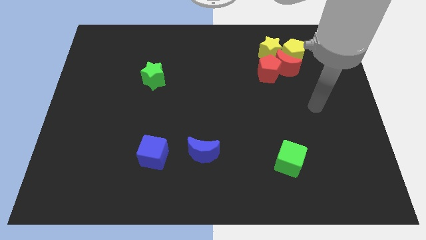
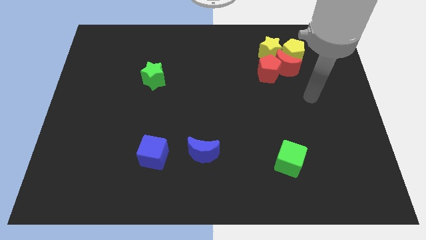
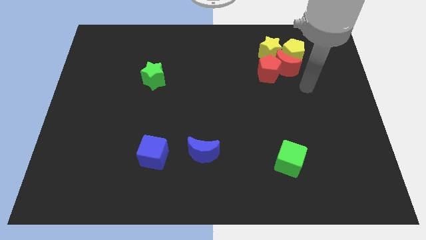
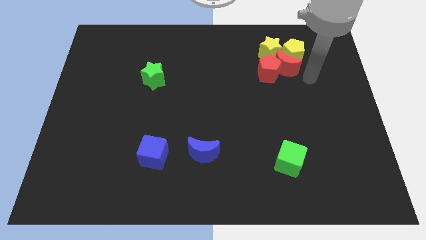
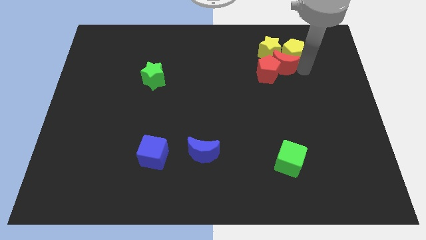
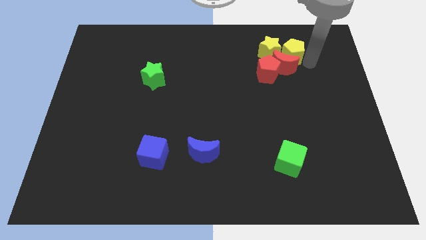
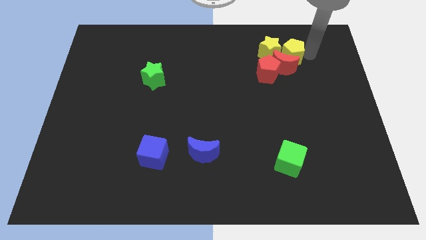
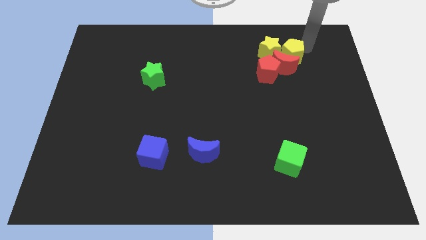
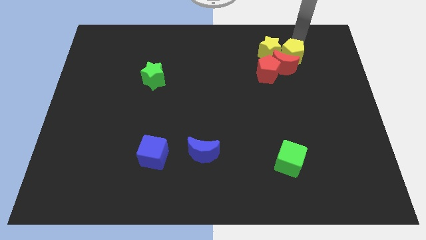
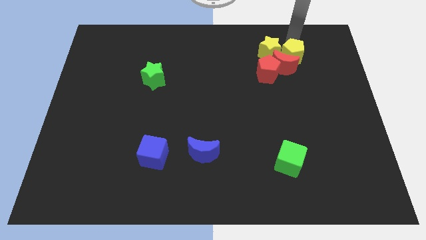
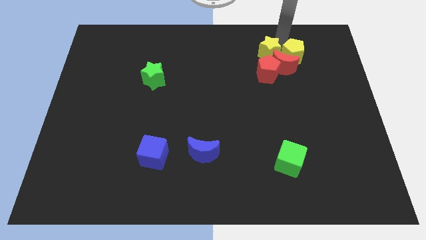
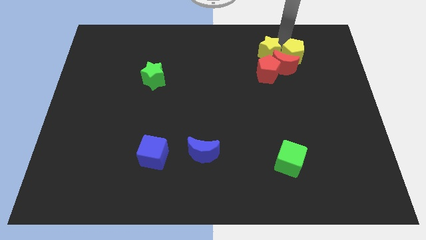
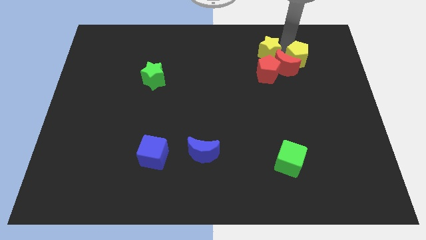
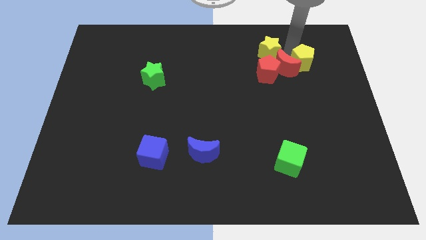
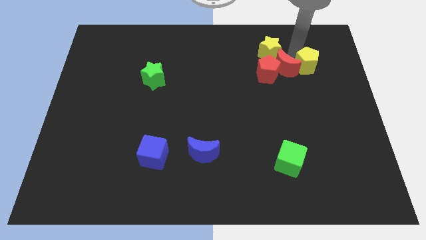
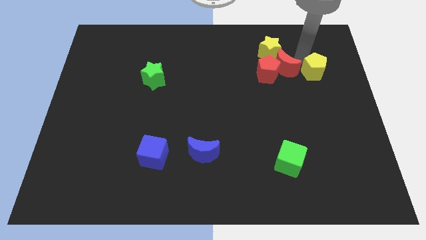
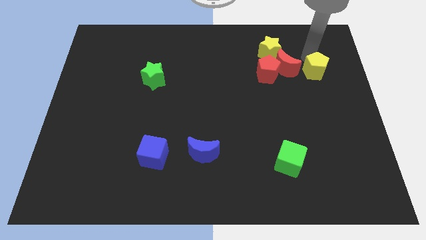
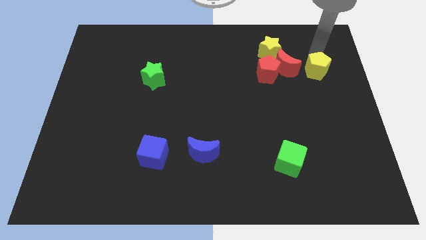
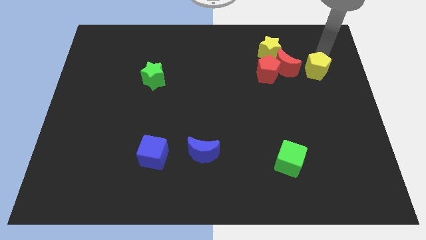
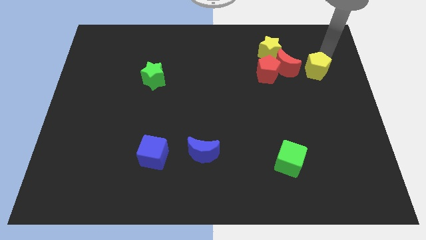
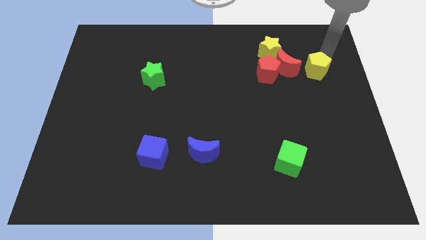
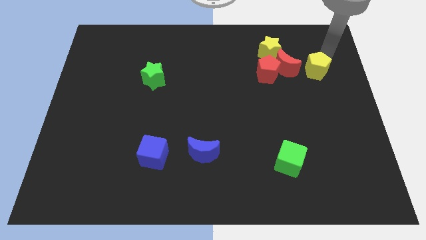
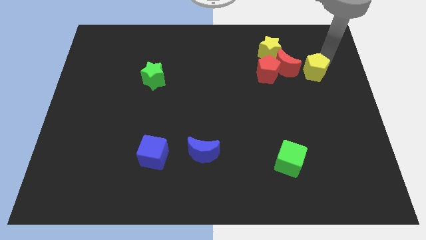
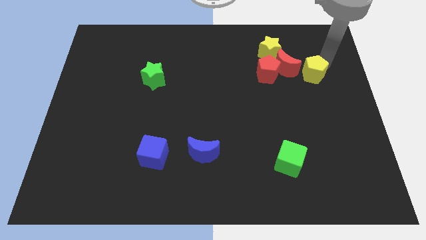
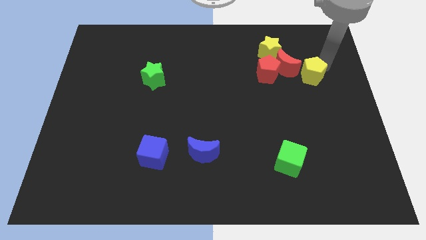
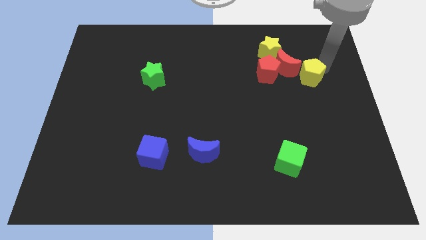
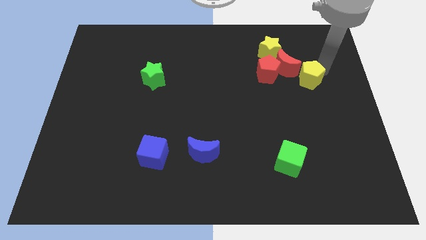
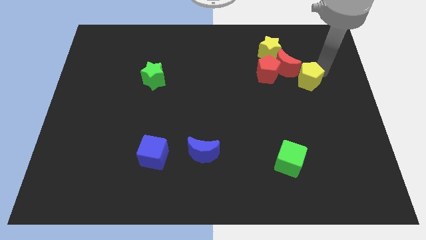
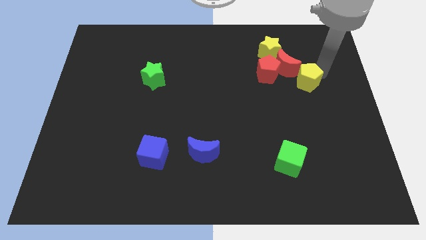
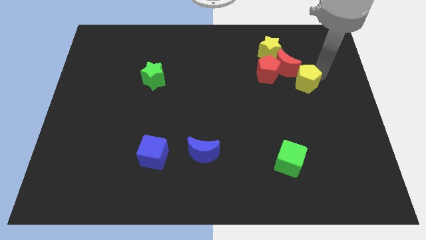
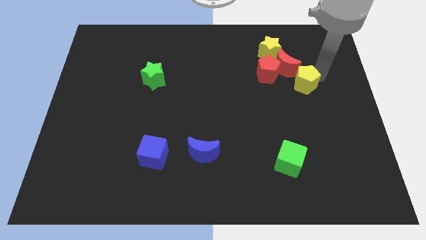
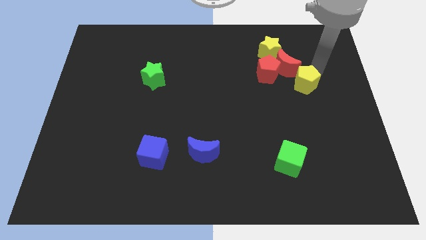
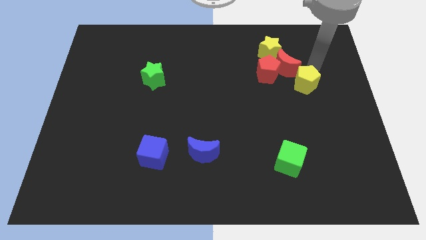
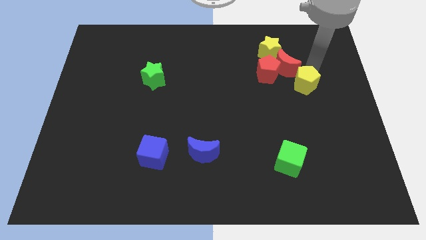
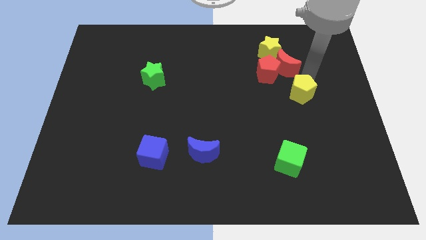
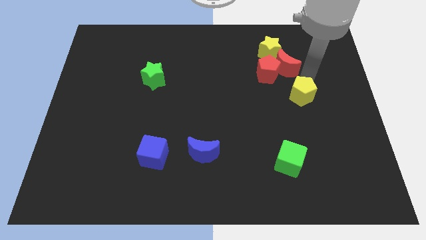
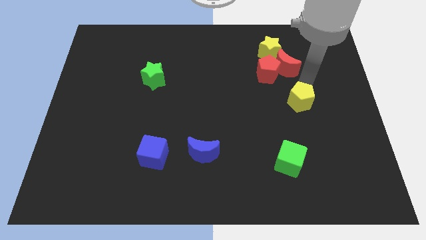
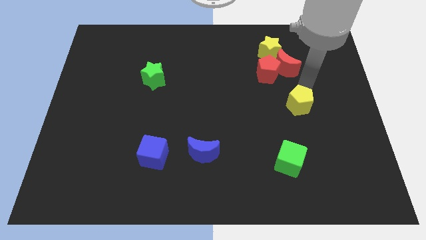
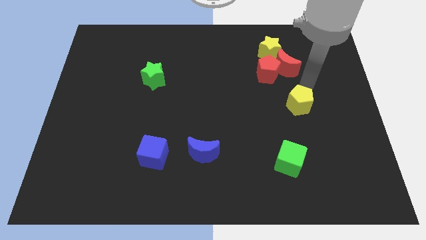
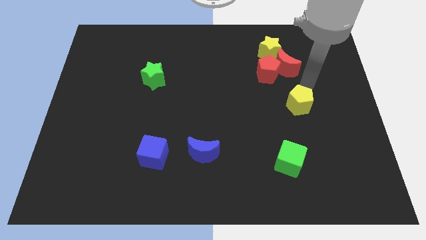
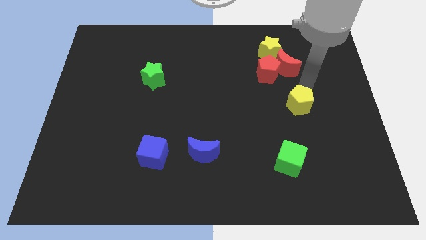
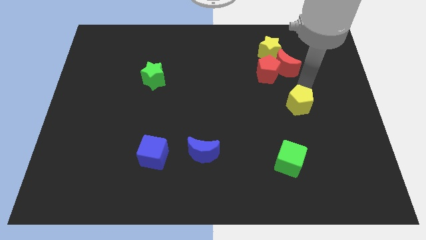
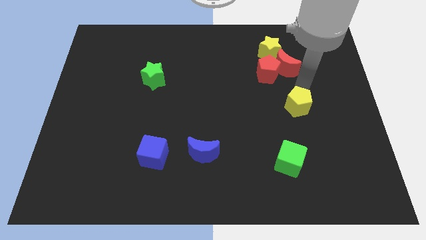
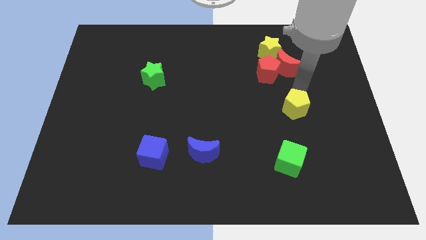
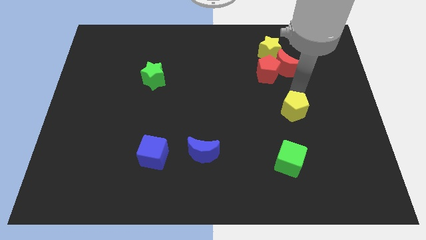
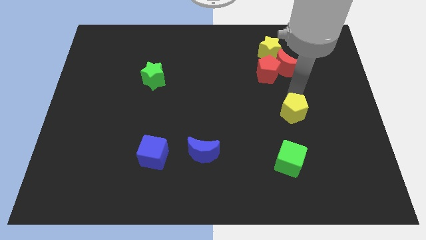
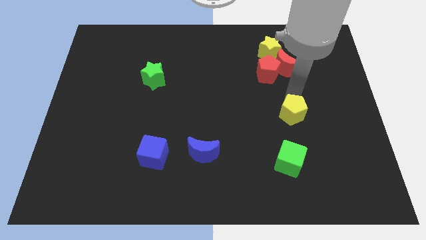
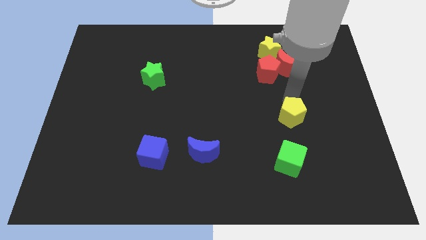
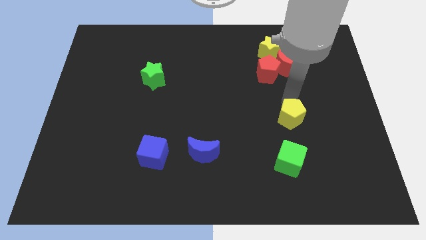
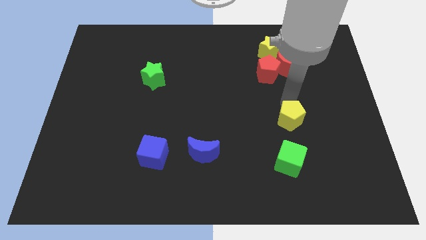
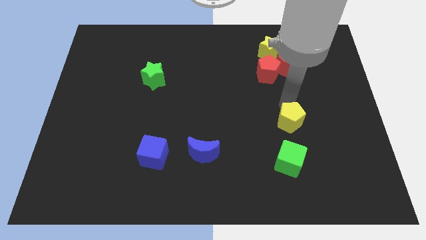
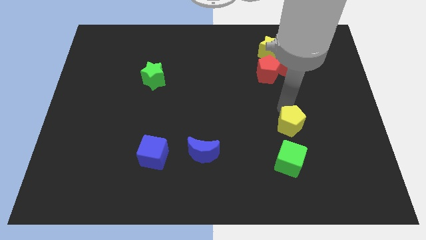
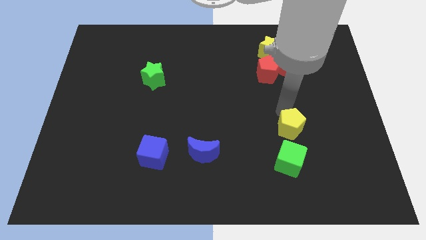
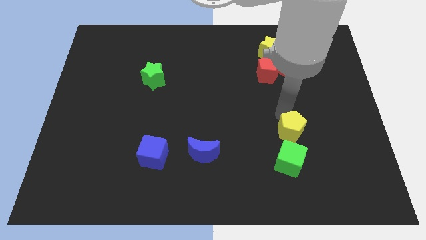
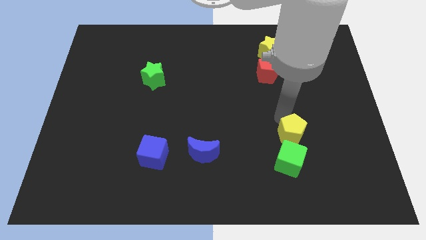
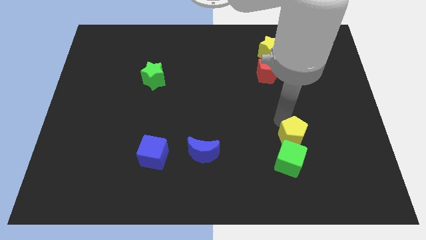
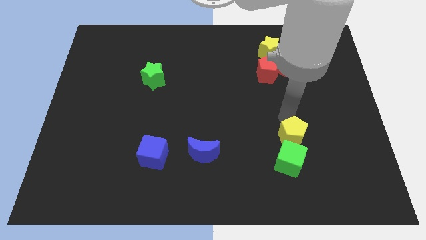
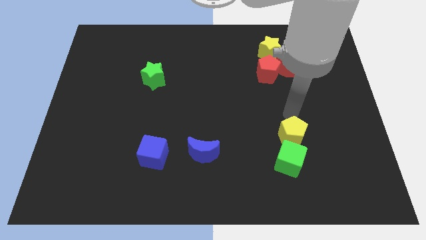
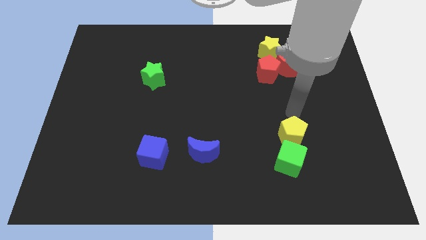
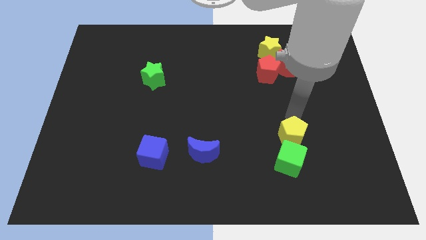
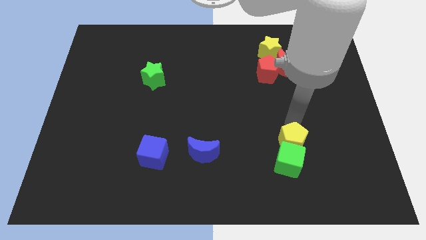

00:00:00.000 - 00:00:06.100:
put the yellow pentagon to the green cube

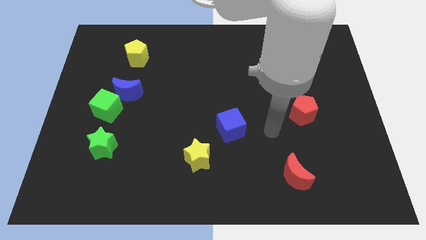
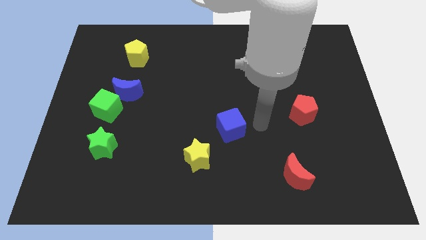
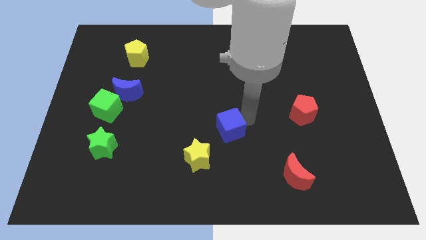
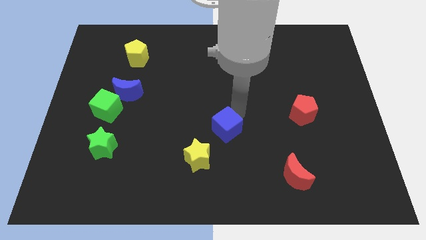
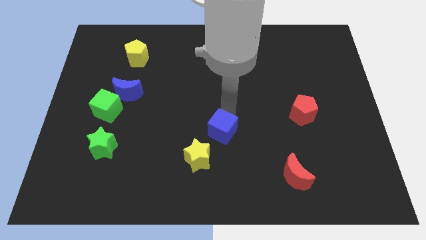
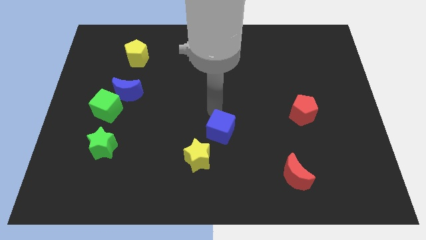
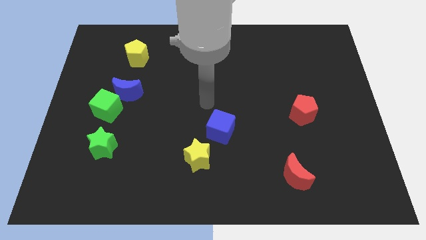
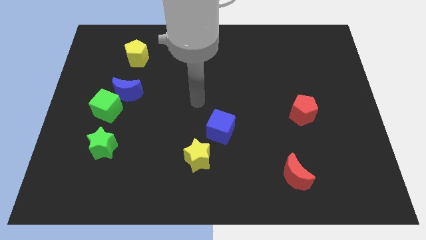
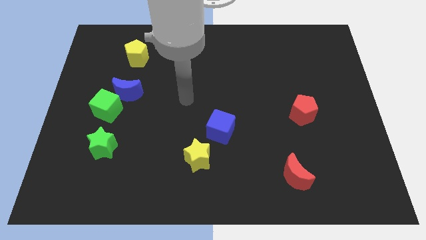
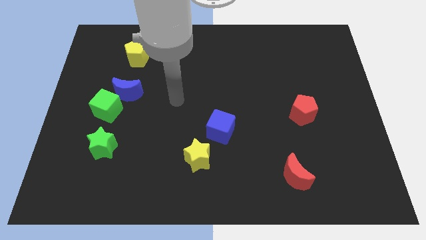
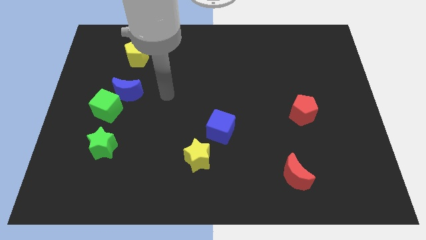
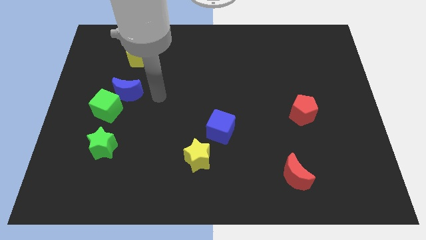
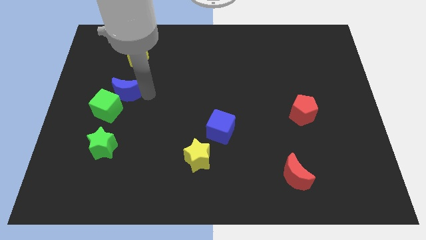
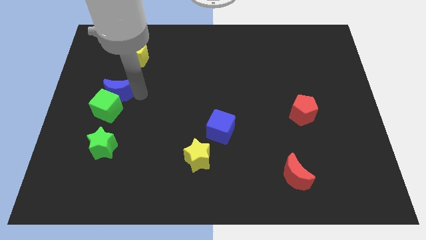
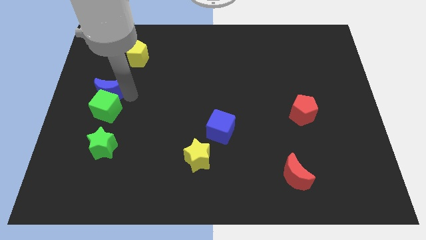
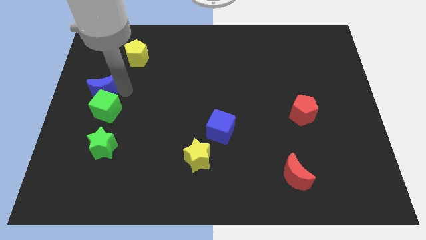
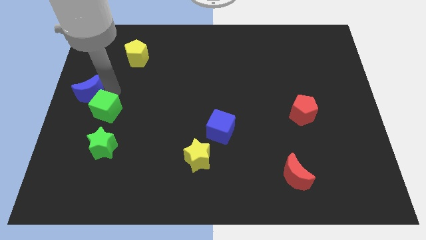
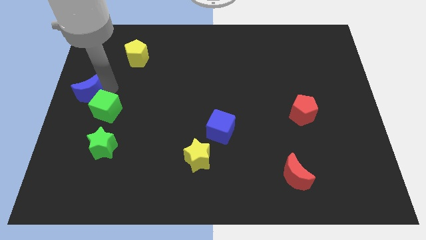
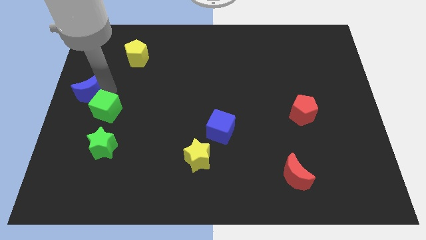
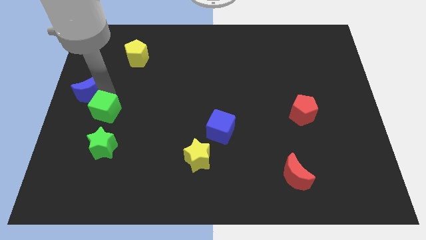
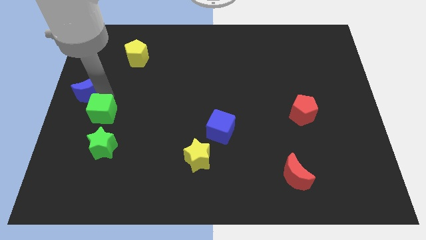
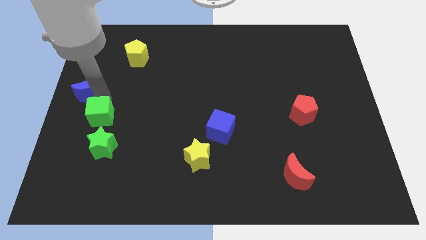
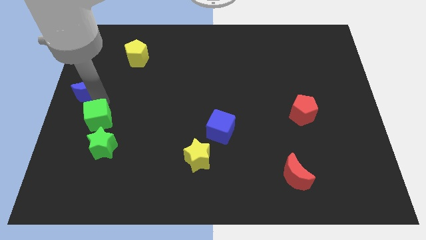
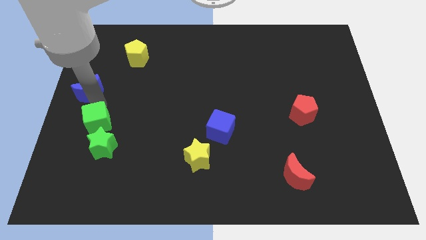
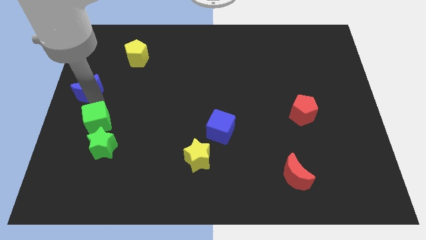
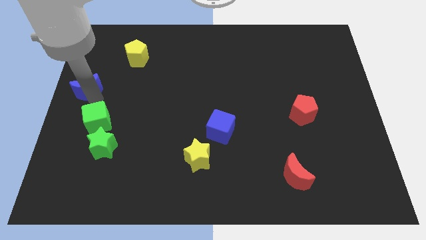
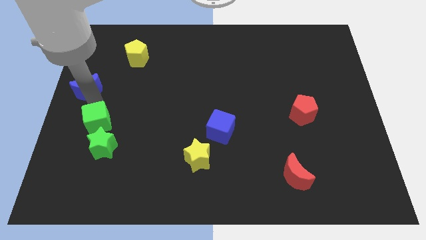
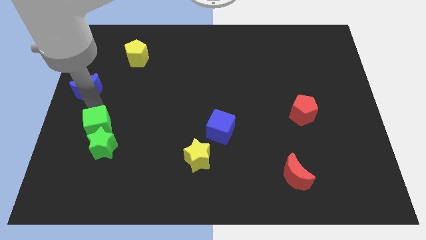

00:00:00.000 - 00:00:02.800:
push the green cube next to the green star
